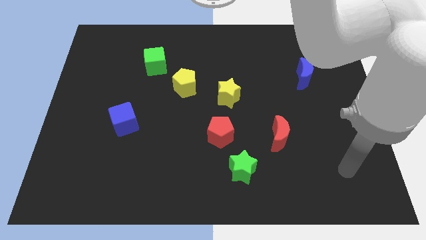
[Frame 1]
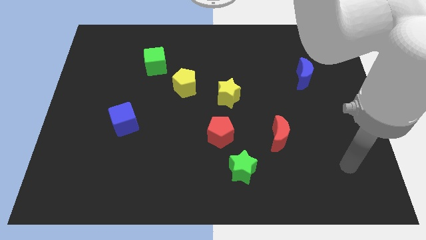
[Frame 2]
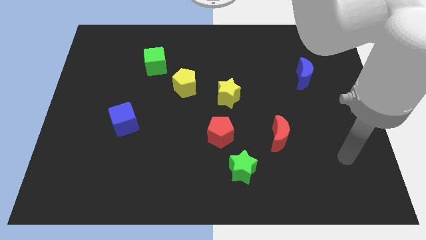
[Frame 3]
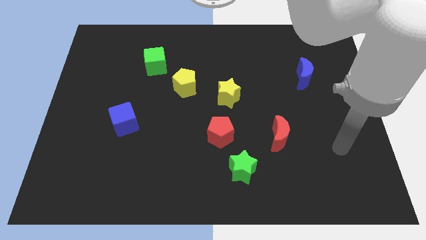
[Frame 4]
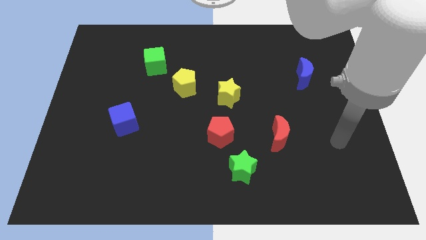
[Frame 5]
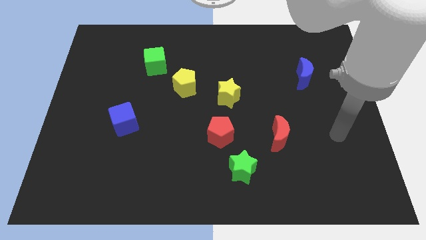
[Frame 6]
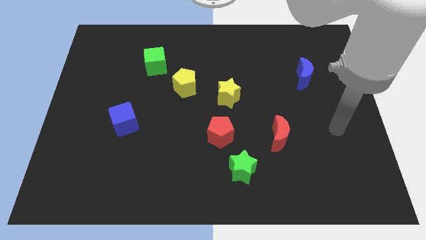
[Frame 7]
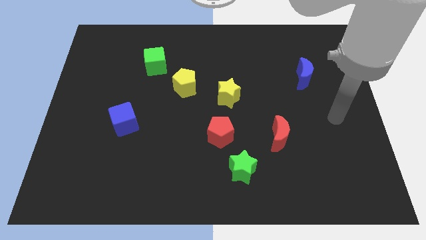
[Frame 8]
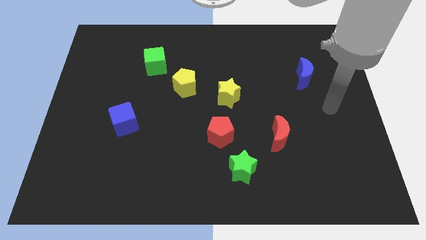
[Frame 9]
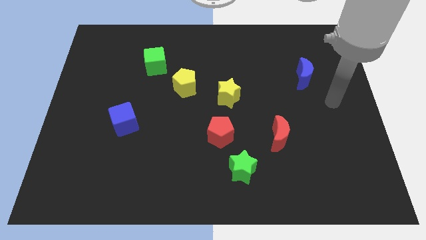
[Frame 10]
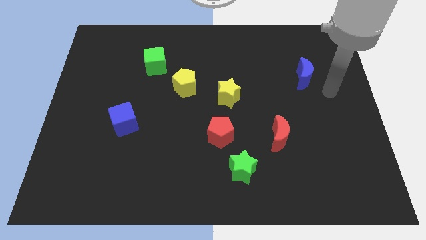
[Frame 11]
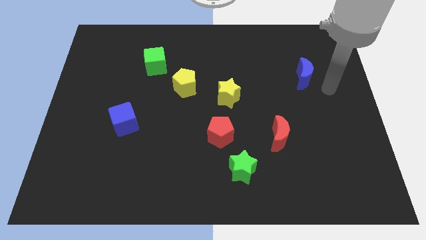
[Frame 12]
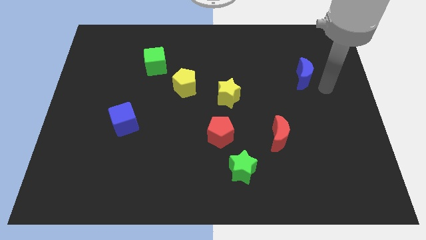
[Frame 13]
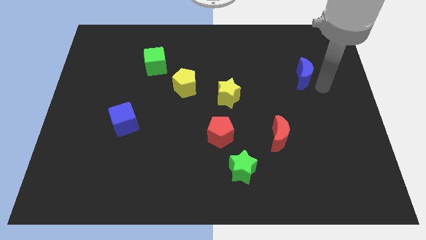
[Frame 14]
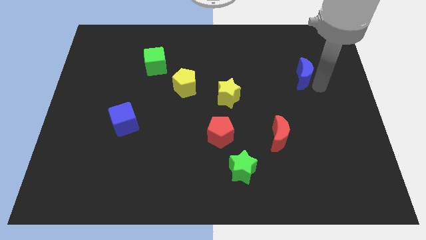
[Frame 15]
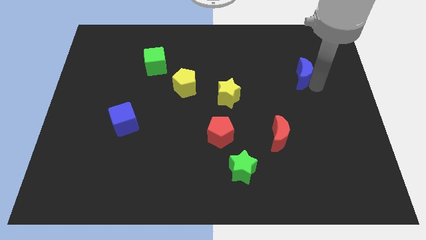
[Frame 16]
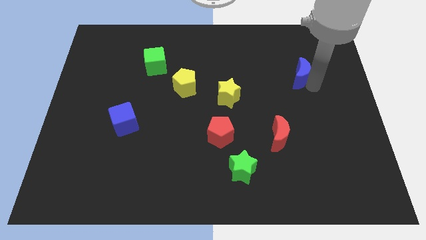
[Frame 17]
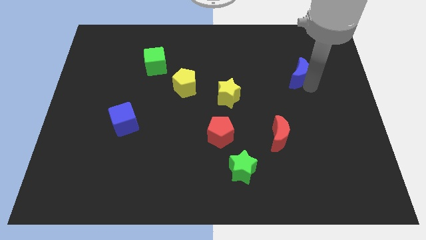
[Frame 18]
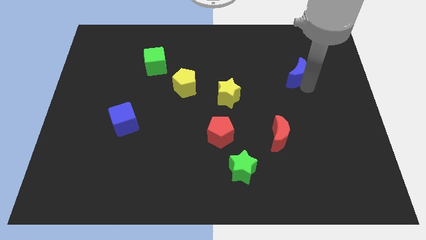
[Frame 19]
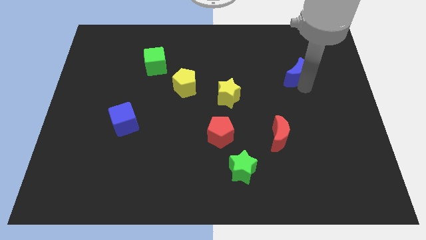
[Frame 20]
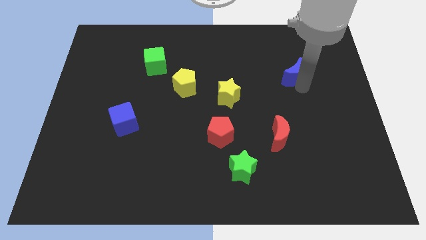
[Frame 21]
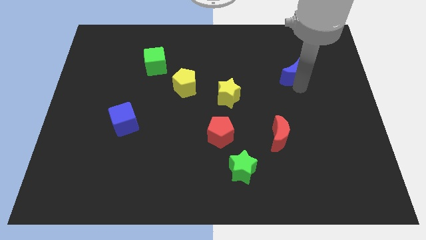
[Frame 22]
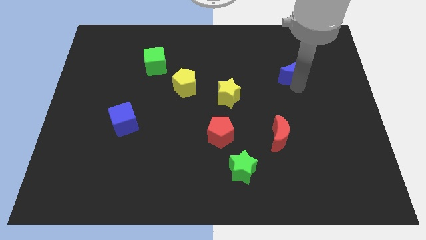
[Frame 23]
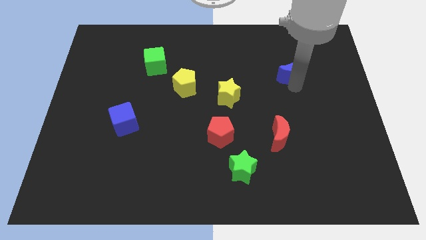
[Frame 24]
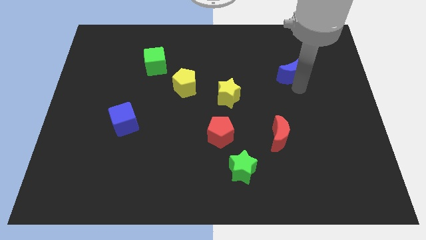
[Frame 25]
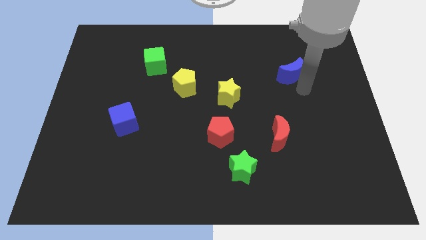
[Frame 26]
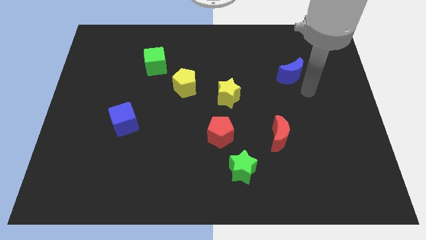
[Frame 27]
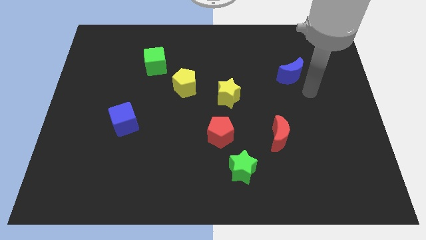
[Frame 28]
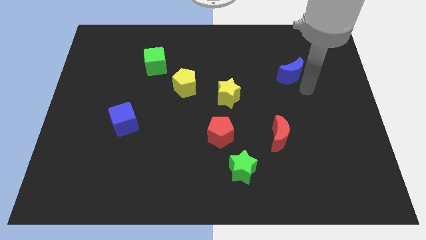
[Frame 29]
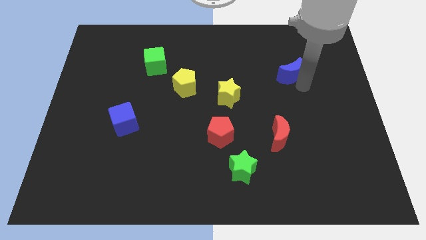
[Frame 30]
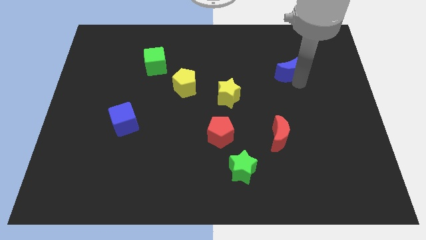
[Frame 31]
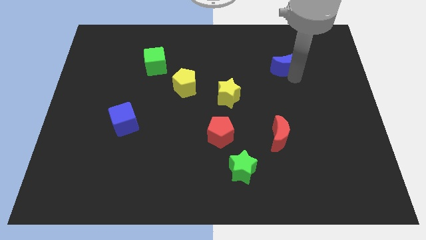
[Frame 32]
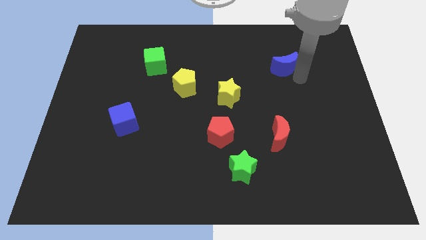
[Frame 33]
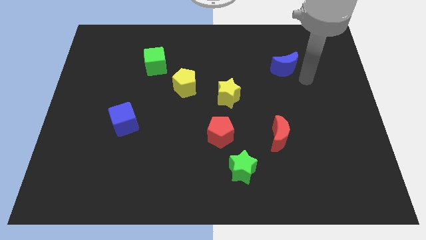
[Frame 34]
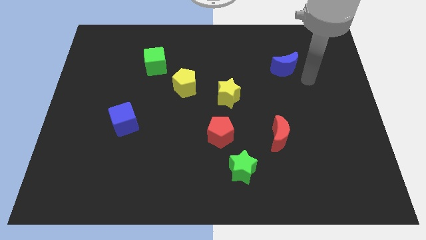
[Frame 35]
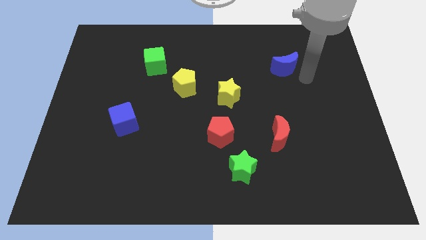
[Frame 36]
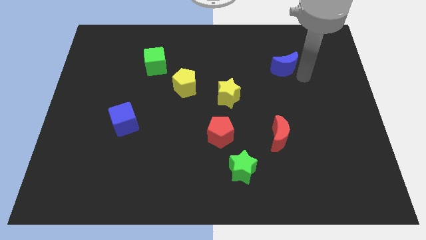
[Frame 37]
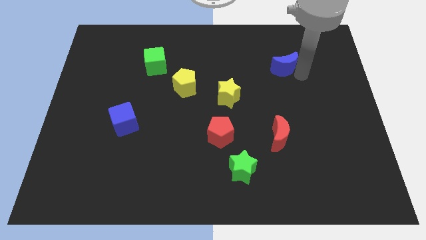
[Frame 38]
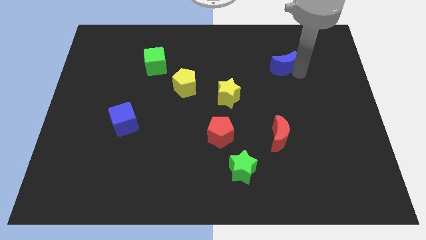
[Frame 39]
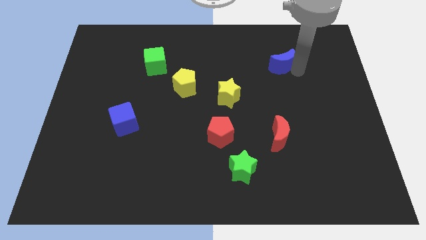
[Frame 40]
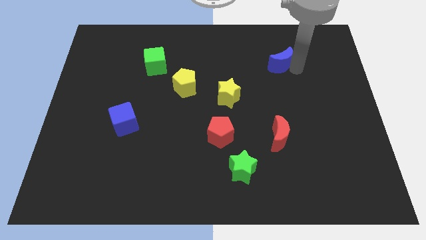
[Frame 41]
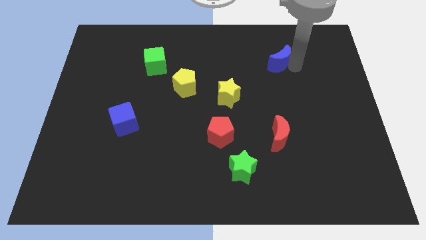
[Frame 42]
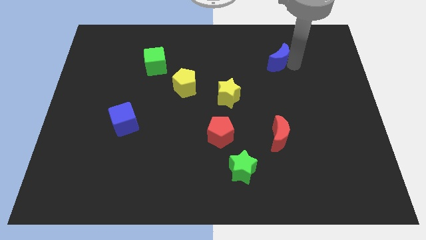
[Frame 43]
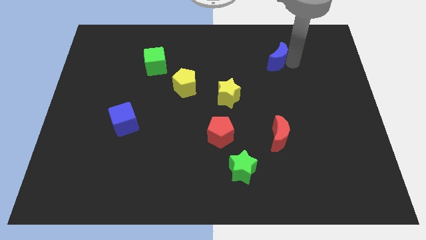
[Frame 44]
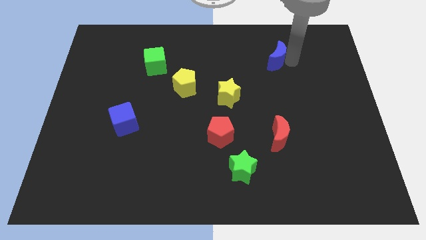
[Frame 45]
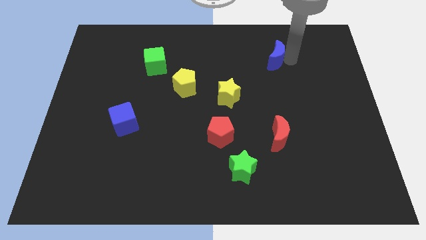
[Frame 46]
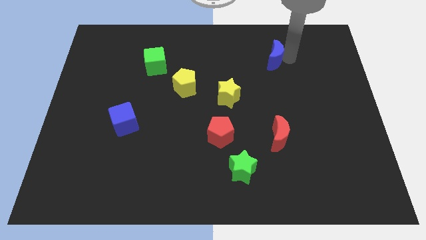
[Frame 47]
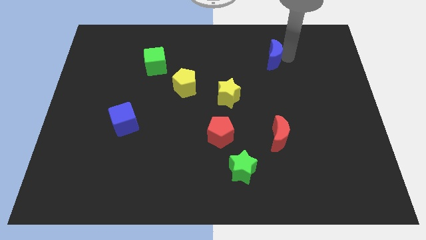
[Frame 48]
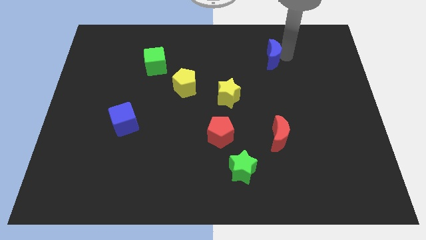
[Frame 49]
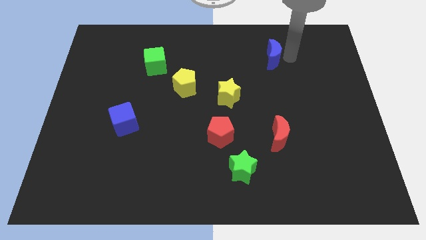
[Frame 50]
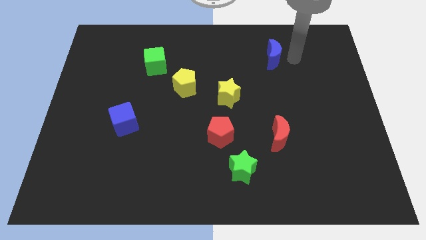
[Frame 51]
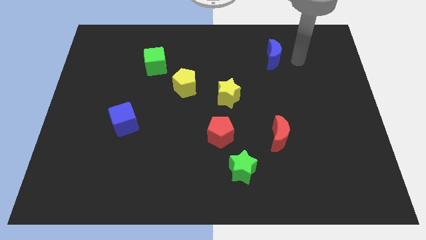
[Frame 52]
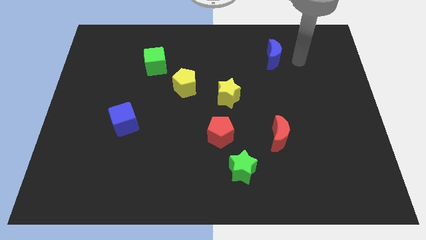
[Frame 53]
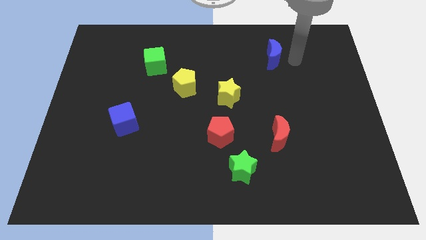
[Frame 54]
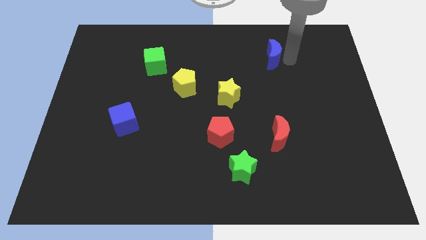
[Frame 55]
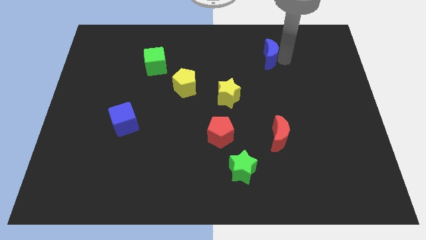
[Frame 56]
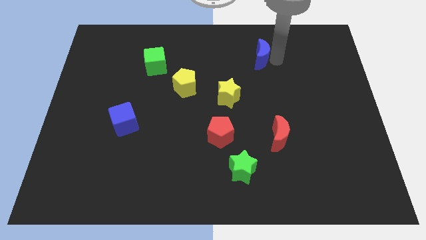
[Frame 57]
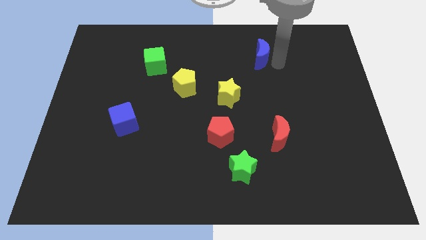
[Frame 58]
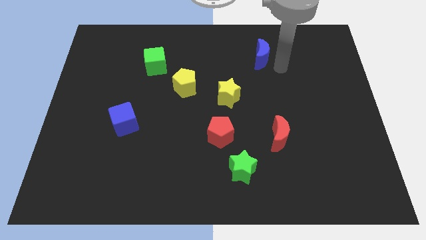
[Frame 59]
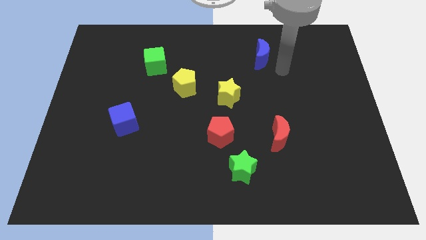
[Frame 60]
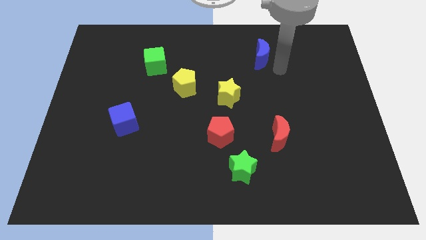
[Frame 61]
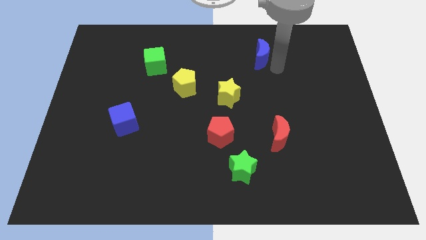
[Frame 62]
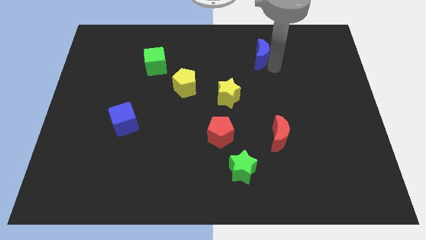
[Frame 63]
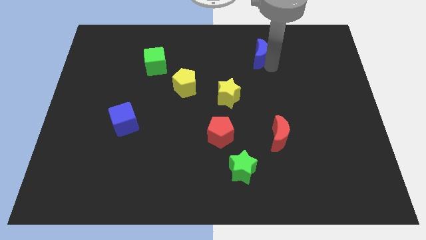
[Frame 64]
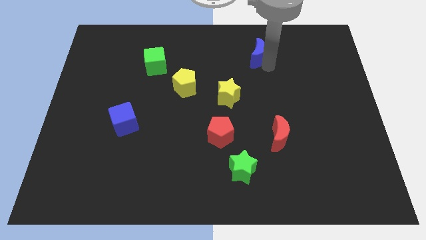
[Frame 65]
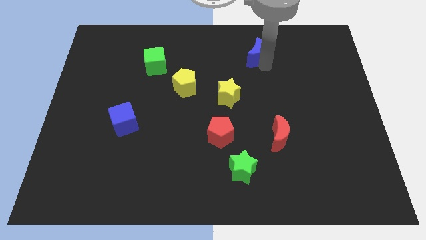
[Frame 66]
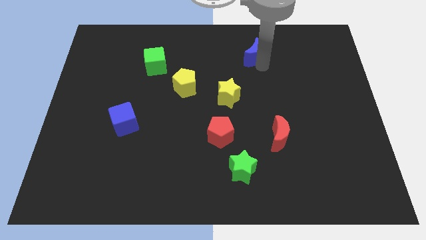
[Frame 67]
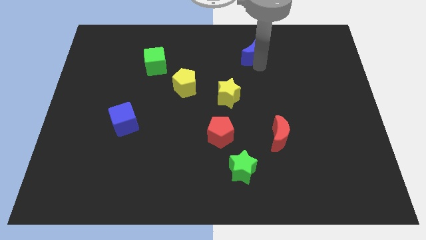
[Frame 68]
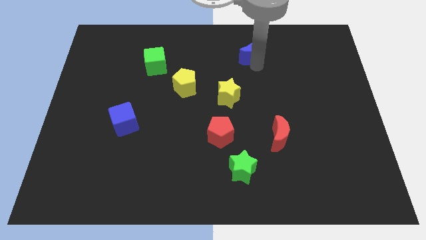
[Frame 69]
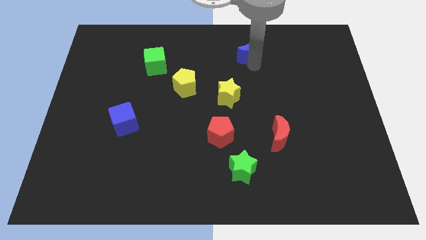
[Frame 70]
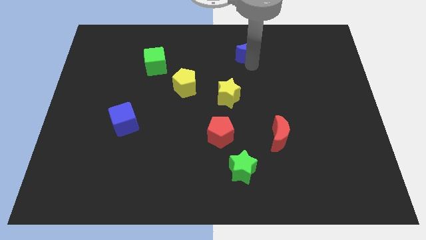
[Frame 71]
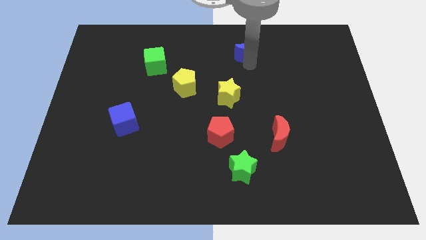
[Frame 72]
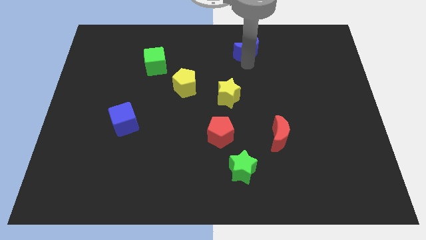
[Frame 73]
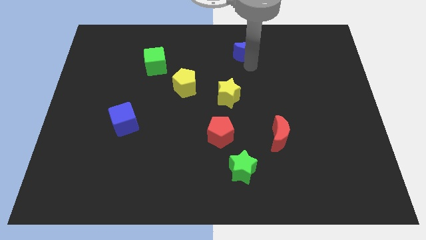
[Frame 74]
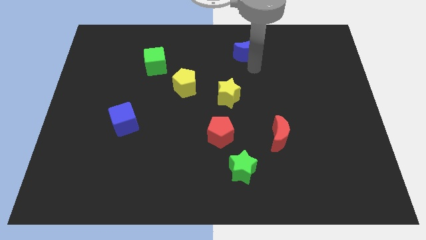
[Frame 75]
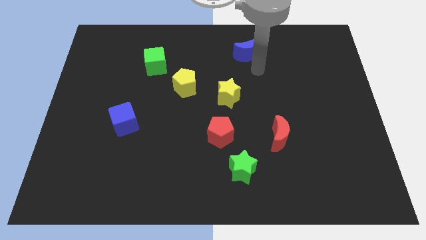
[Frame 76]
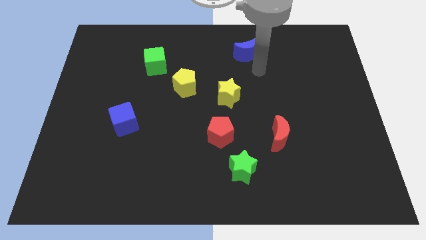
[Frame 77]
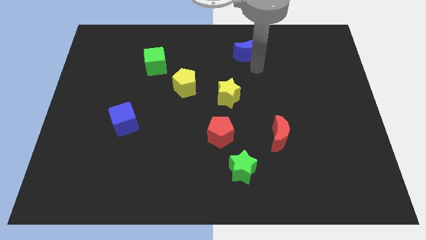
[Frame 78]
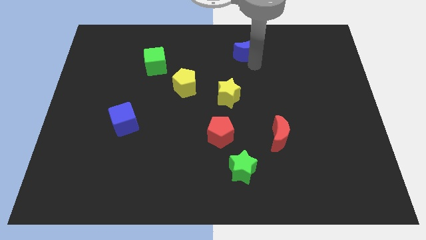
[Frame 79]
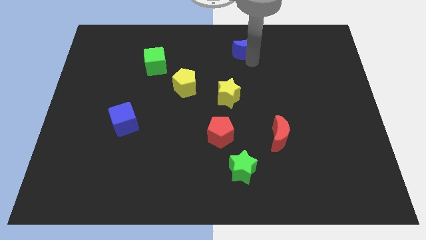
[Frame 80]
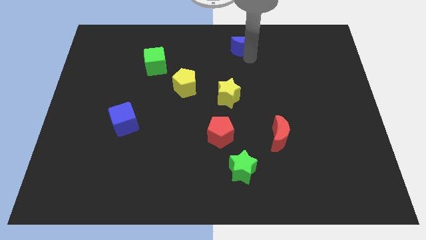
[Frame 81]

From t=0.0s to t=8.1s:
slide the blue moon to the towards your base
